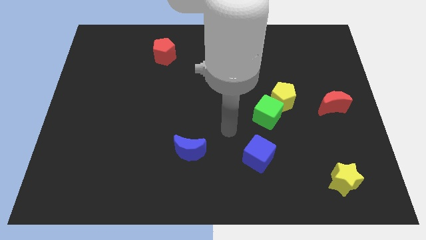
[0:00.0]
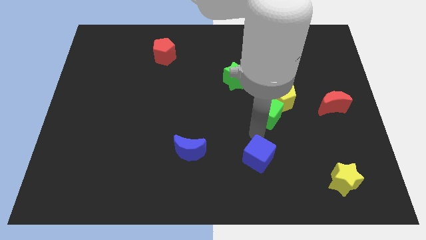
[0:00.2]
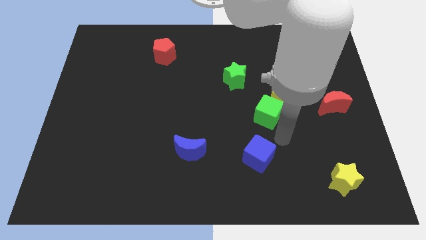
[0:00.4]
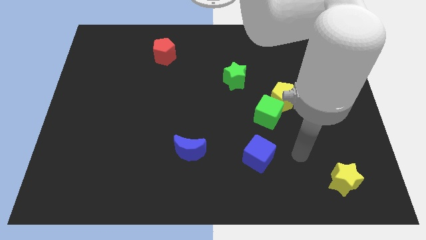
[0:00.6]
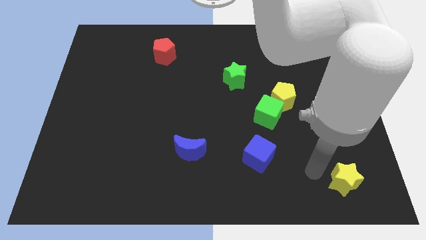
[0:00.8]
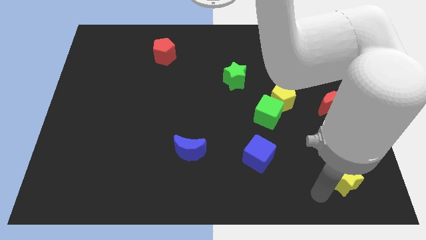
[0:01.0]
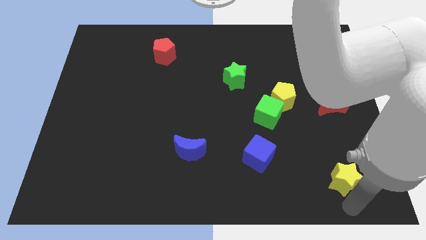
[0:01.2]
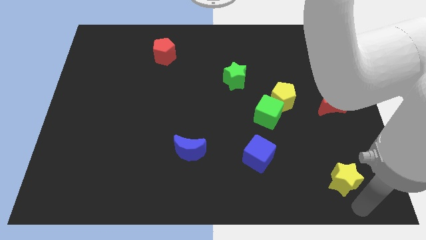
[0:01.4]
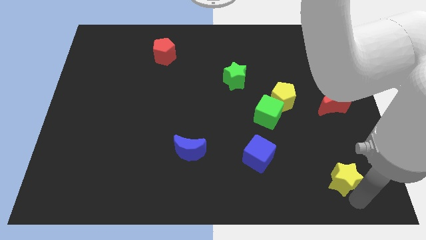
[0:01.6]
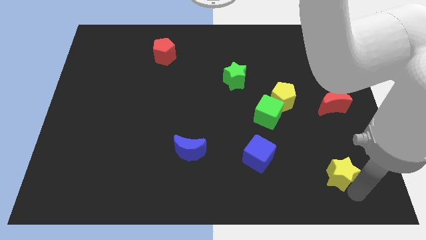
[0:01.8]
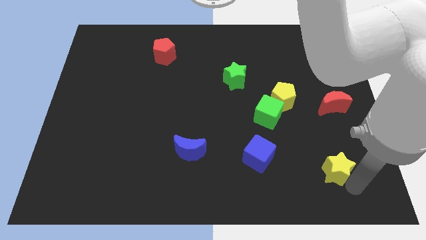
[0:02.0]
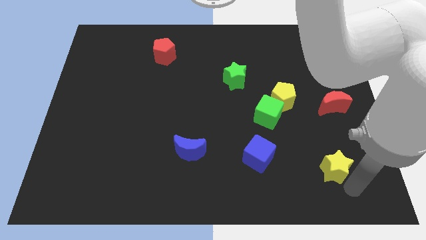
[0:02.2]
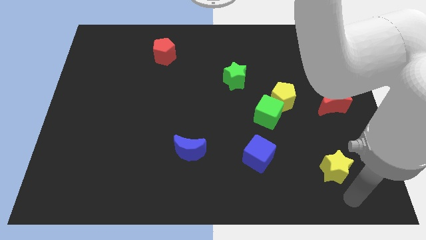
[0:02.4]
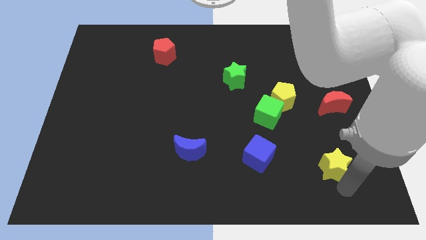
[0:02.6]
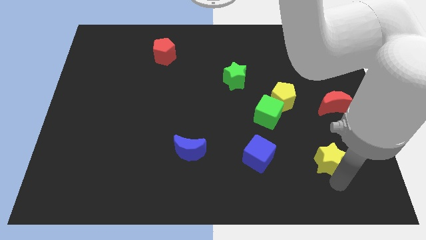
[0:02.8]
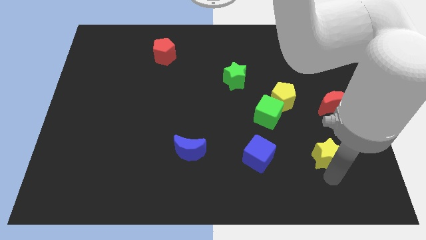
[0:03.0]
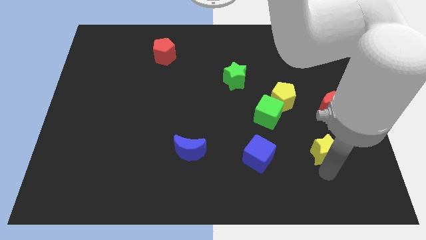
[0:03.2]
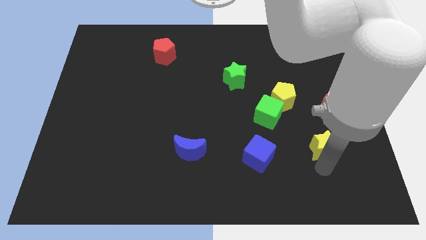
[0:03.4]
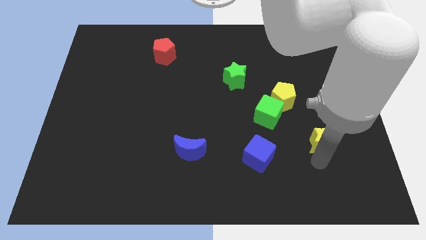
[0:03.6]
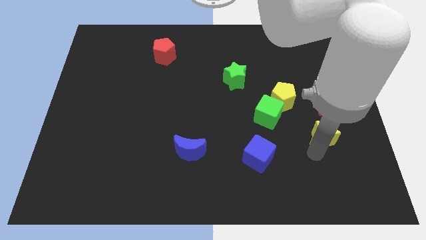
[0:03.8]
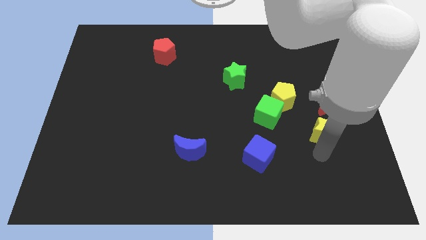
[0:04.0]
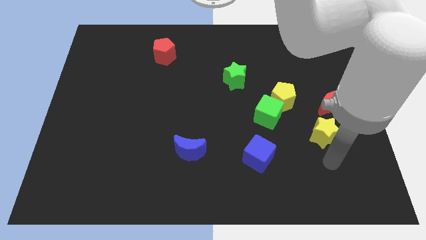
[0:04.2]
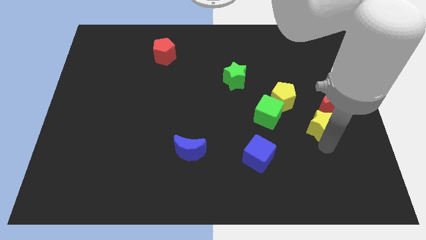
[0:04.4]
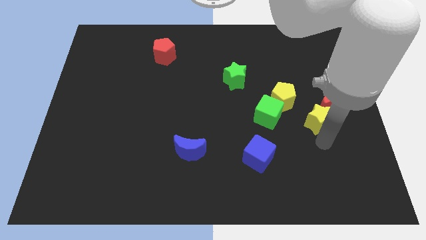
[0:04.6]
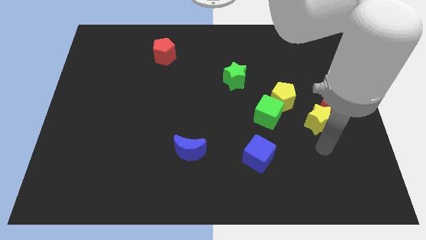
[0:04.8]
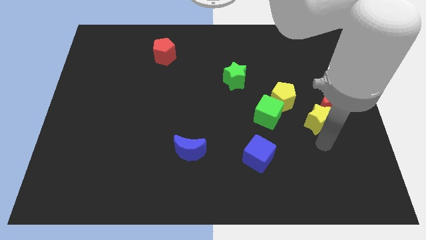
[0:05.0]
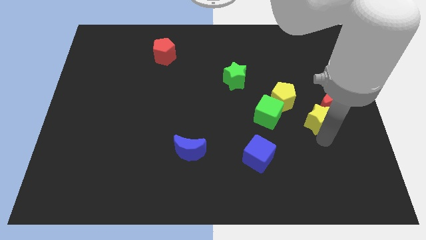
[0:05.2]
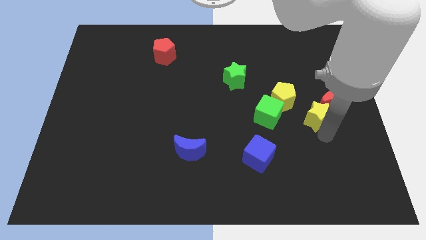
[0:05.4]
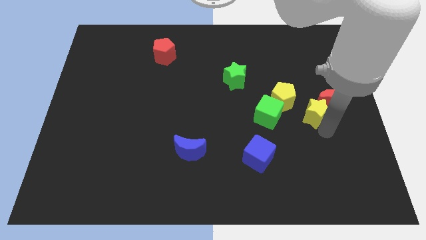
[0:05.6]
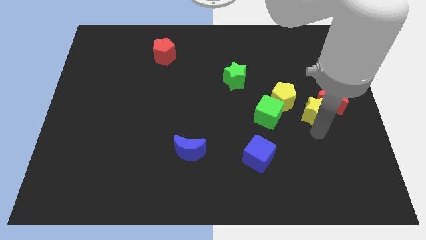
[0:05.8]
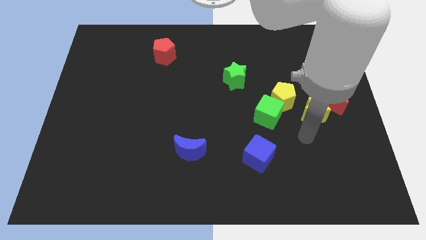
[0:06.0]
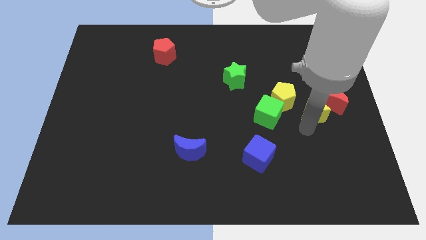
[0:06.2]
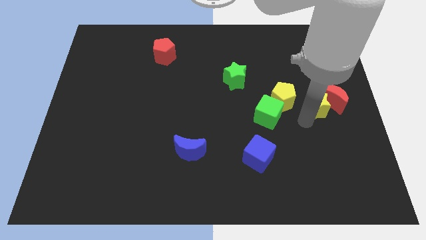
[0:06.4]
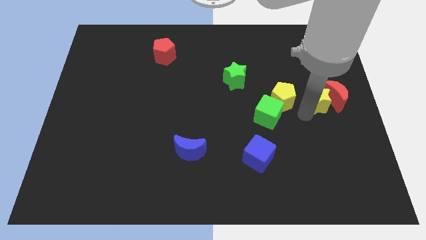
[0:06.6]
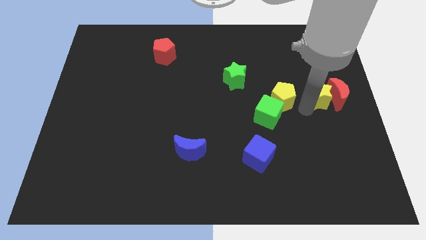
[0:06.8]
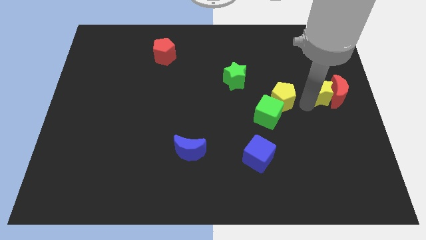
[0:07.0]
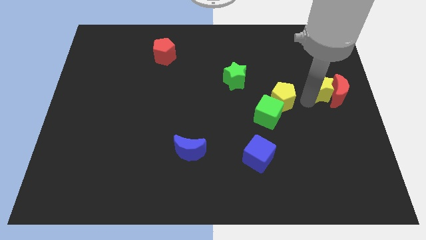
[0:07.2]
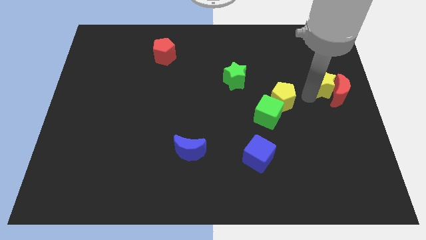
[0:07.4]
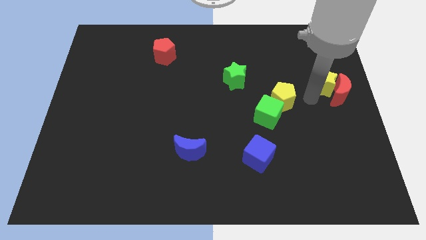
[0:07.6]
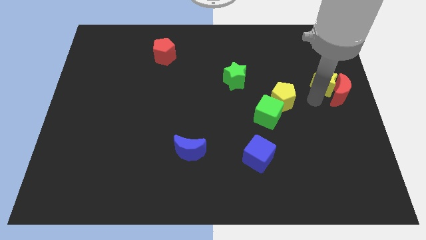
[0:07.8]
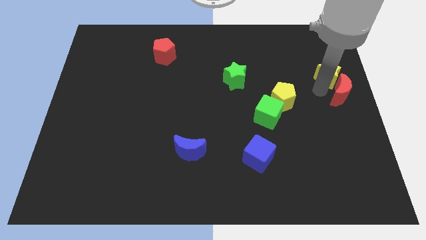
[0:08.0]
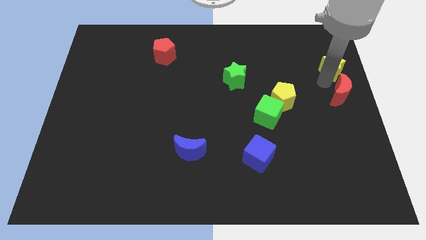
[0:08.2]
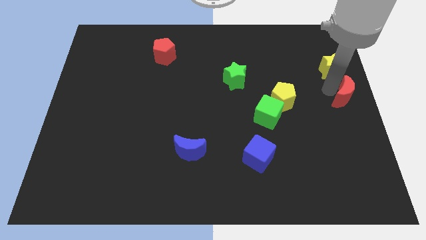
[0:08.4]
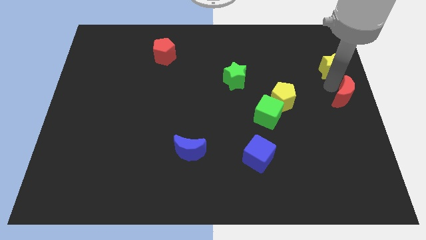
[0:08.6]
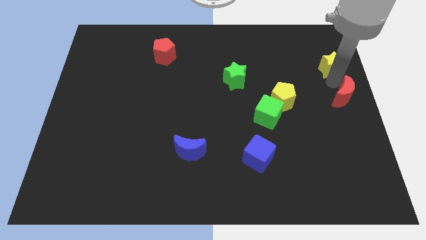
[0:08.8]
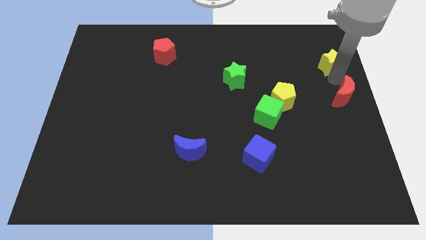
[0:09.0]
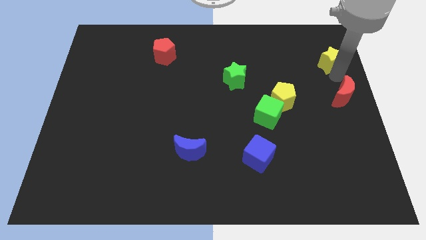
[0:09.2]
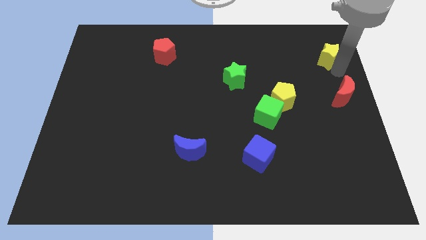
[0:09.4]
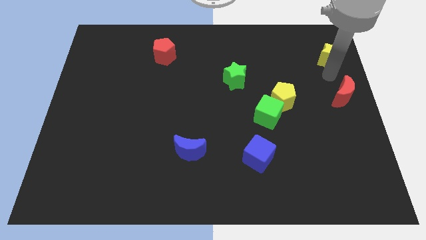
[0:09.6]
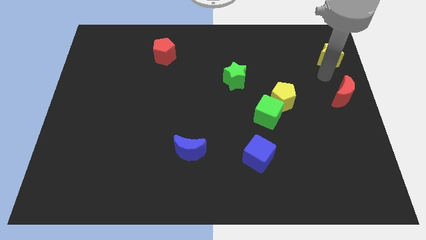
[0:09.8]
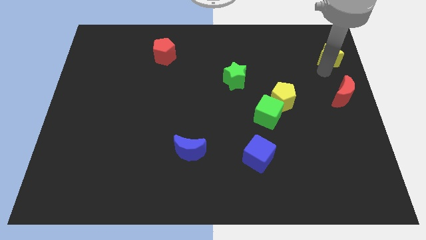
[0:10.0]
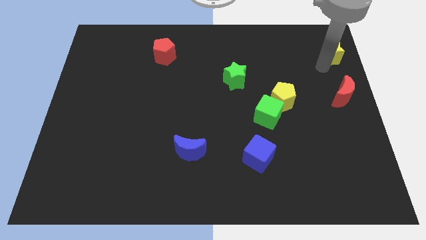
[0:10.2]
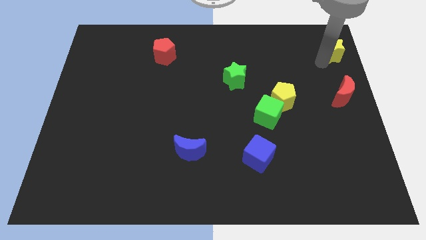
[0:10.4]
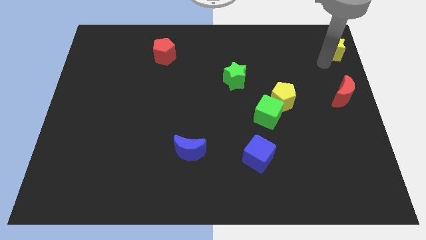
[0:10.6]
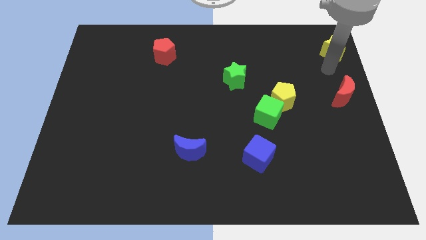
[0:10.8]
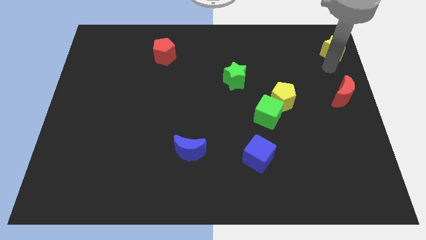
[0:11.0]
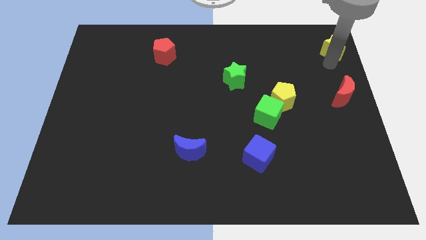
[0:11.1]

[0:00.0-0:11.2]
put the yellow star to the top right corner
